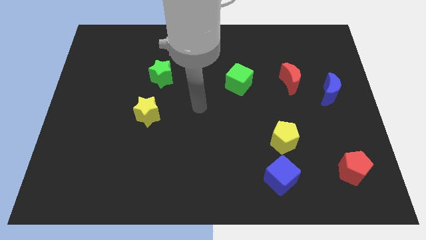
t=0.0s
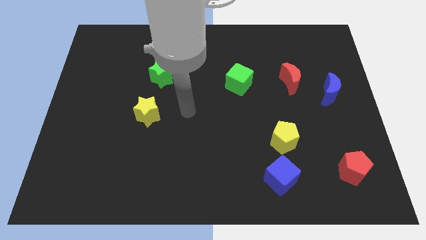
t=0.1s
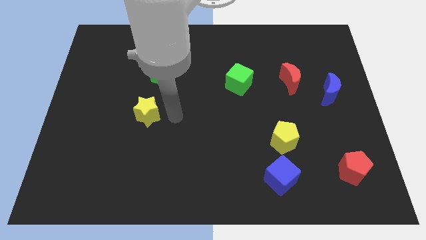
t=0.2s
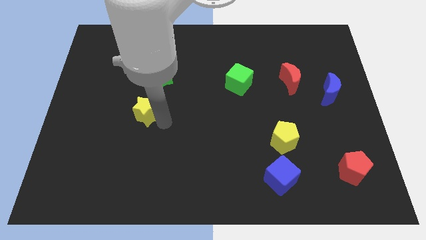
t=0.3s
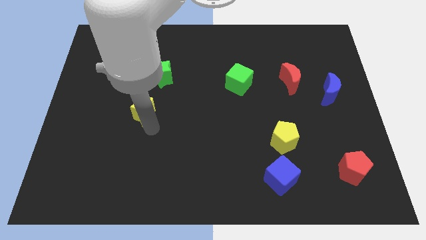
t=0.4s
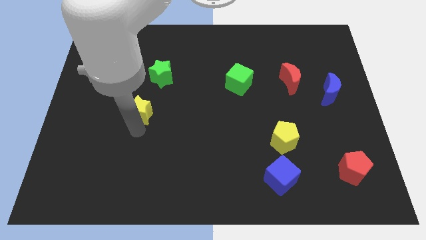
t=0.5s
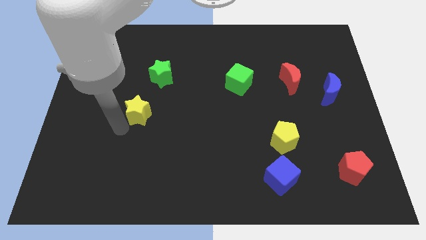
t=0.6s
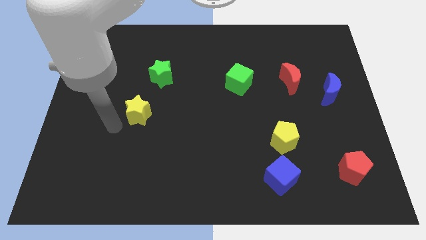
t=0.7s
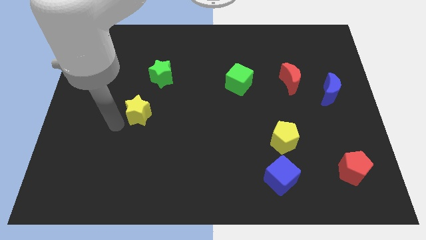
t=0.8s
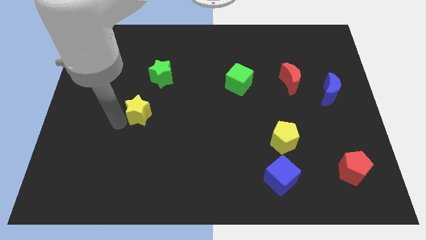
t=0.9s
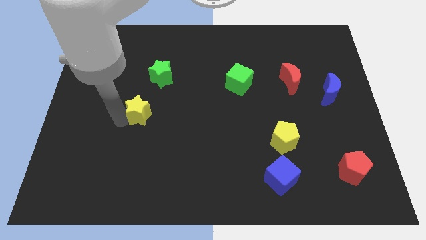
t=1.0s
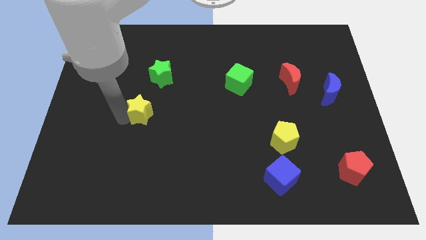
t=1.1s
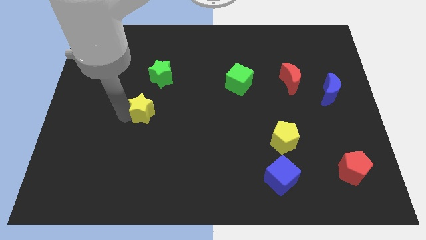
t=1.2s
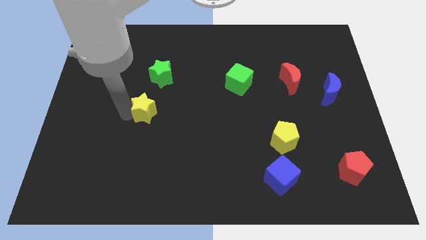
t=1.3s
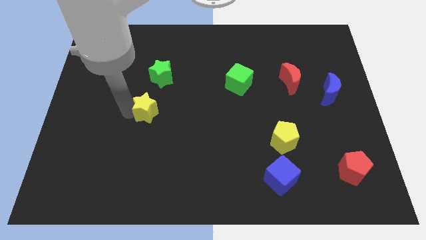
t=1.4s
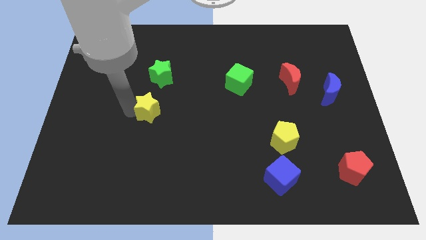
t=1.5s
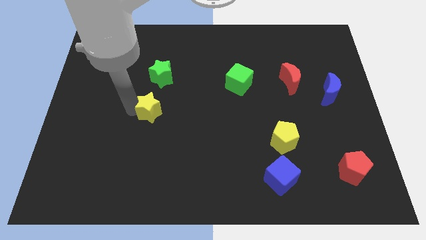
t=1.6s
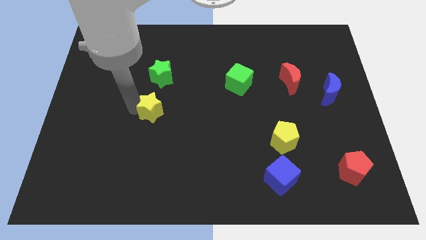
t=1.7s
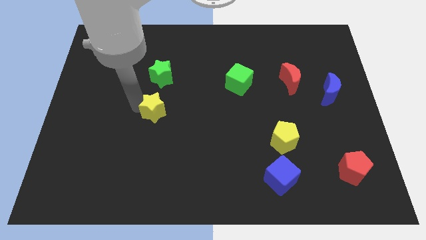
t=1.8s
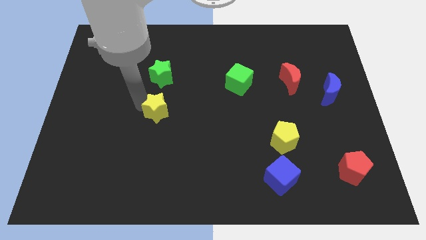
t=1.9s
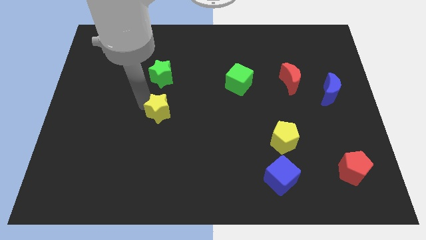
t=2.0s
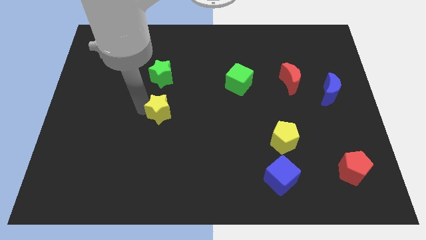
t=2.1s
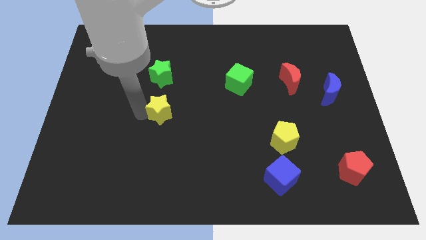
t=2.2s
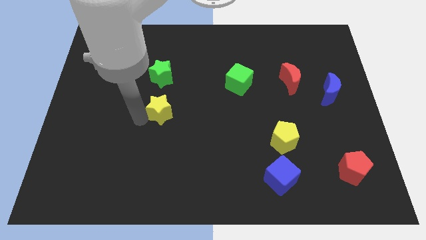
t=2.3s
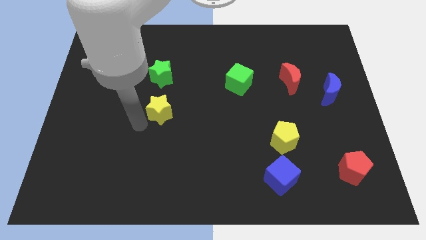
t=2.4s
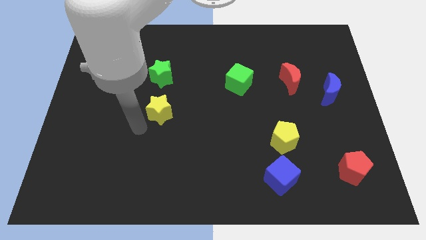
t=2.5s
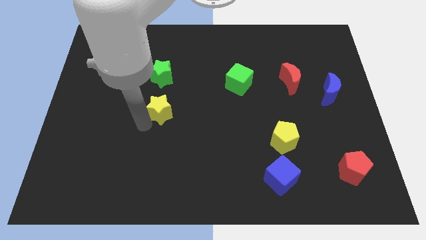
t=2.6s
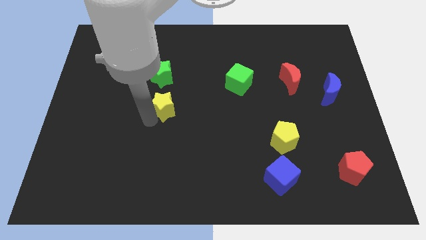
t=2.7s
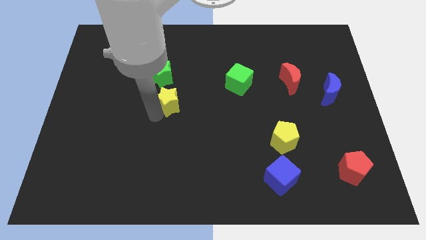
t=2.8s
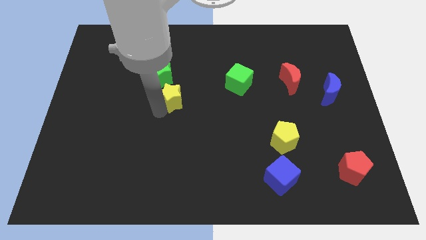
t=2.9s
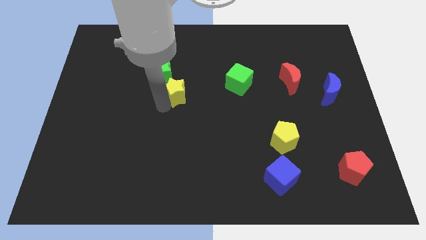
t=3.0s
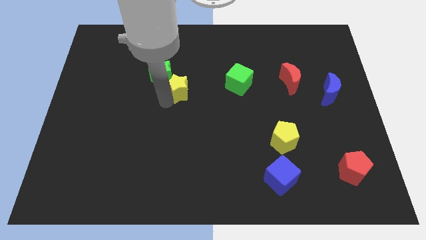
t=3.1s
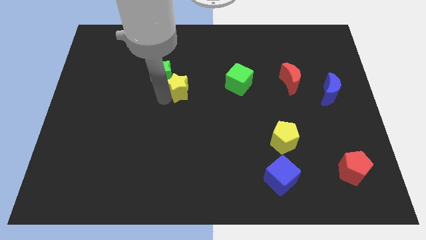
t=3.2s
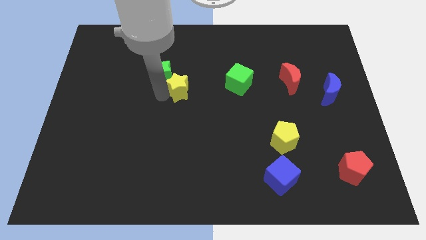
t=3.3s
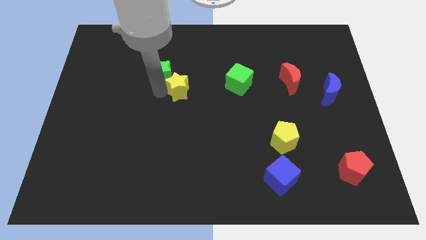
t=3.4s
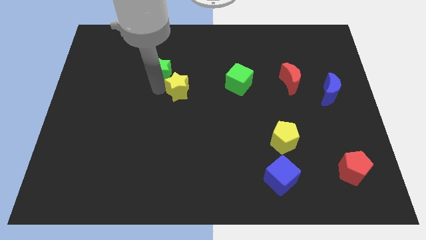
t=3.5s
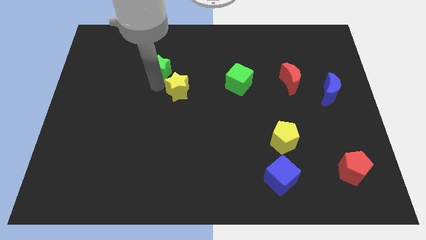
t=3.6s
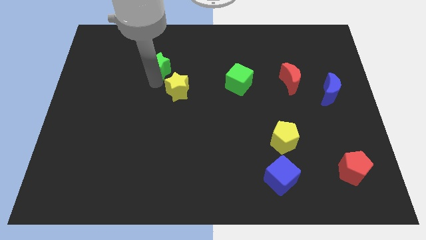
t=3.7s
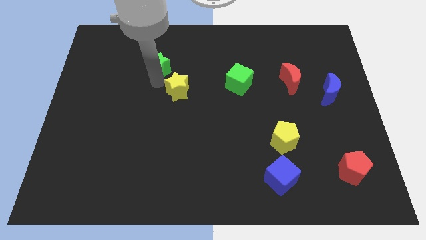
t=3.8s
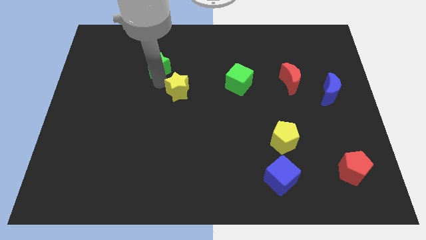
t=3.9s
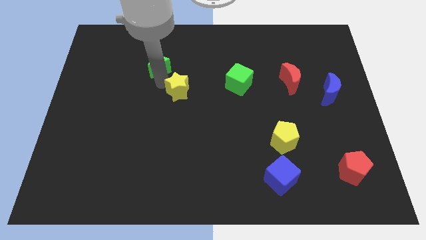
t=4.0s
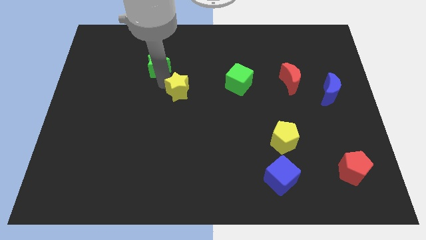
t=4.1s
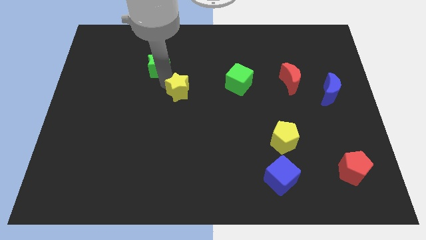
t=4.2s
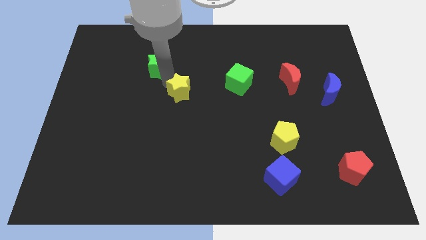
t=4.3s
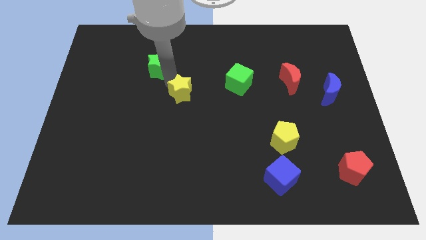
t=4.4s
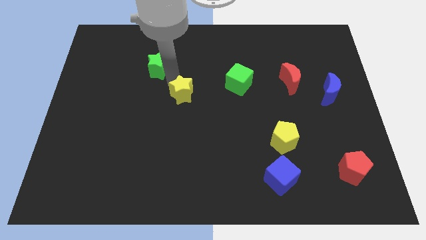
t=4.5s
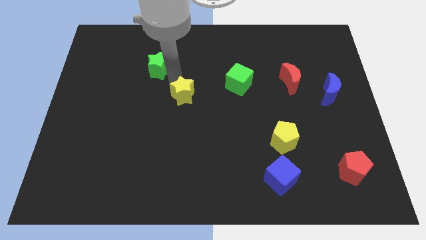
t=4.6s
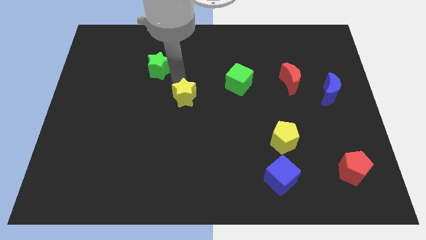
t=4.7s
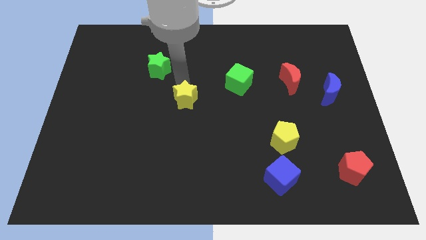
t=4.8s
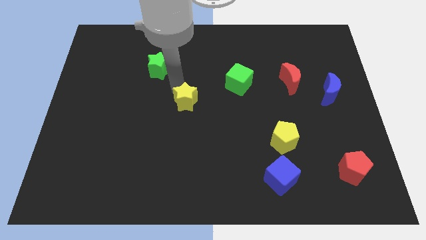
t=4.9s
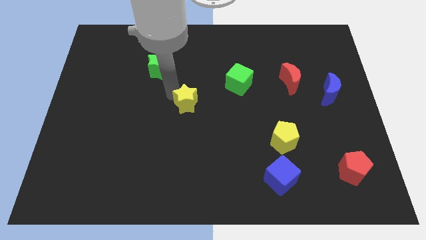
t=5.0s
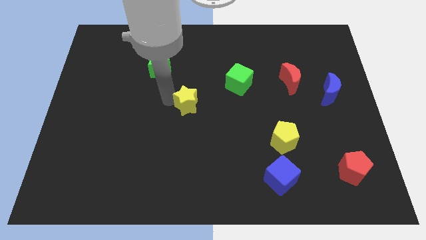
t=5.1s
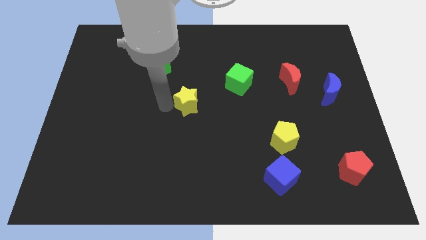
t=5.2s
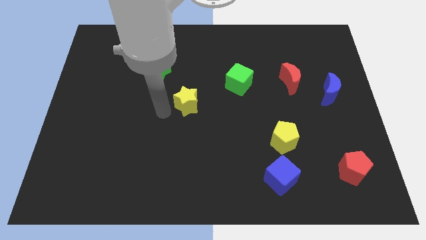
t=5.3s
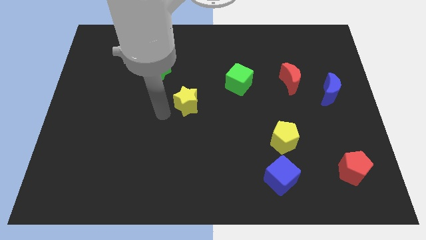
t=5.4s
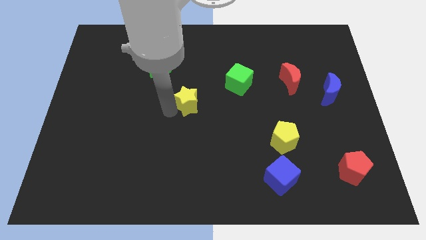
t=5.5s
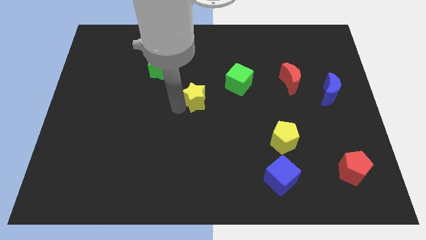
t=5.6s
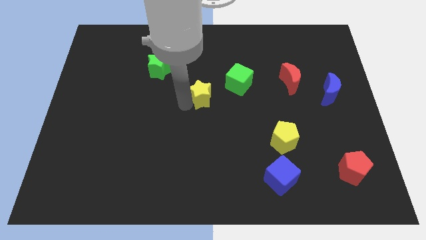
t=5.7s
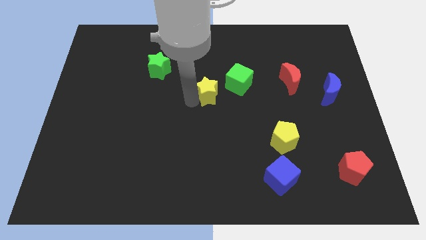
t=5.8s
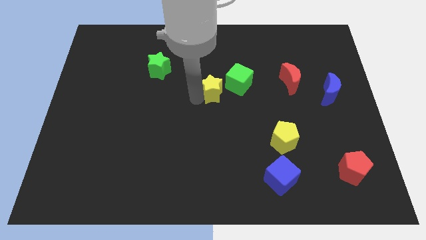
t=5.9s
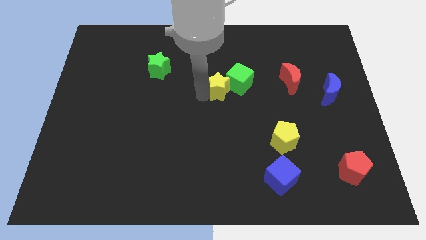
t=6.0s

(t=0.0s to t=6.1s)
push the yellow star towards the green cube

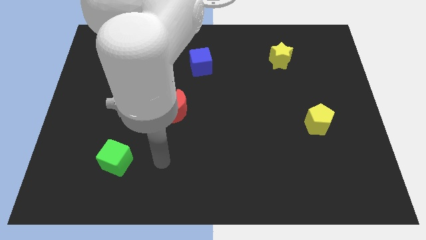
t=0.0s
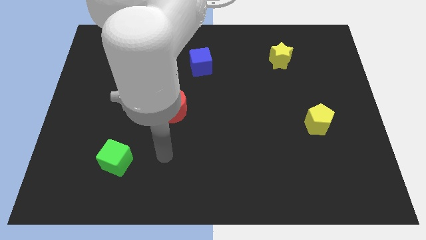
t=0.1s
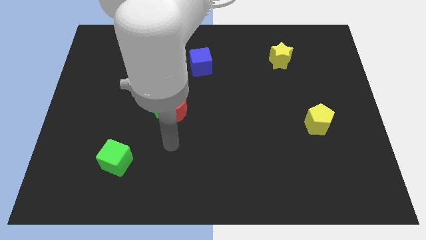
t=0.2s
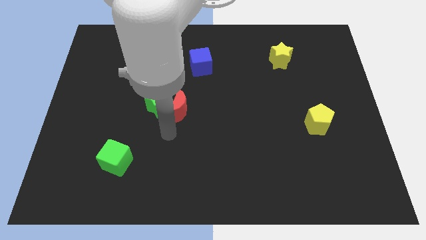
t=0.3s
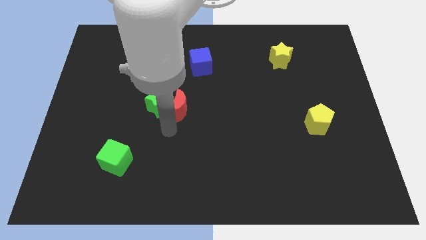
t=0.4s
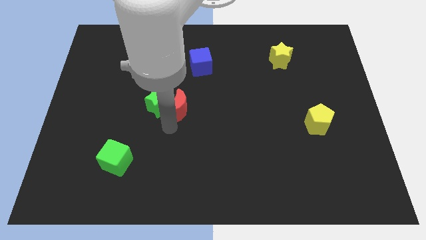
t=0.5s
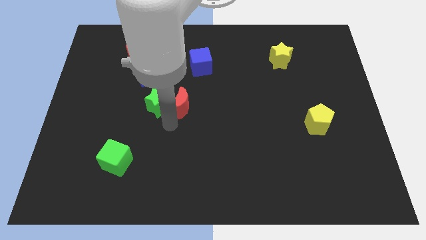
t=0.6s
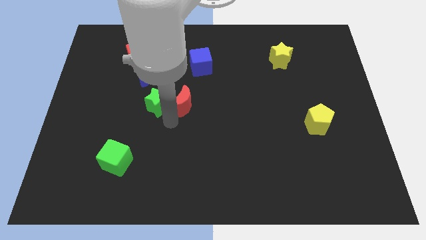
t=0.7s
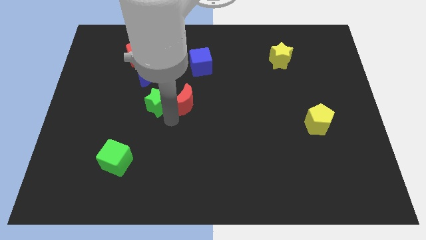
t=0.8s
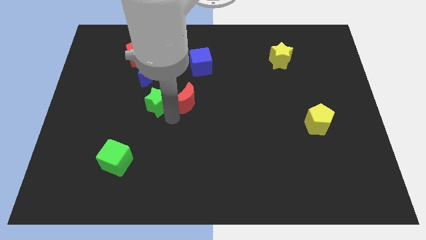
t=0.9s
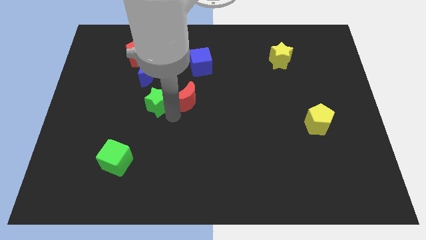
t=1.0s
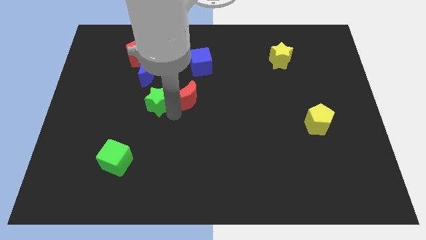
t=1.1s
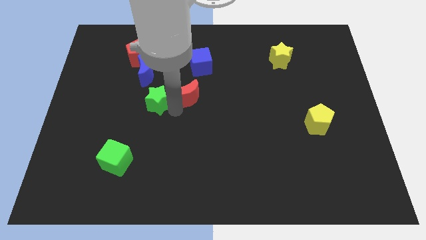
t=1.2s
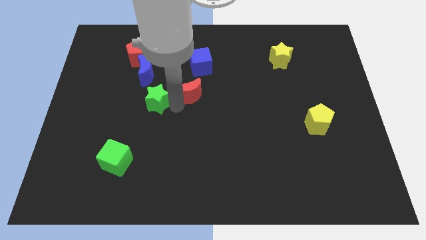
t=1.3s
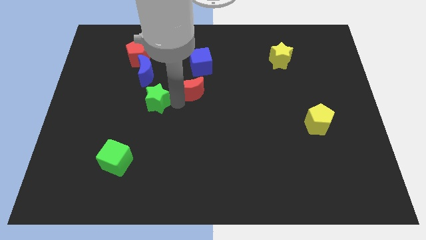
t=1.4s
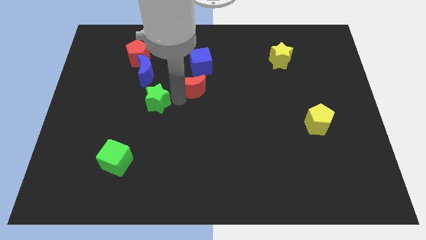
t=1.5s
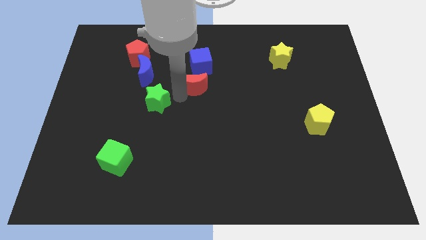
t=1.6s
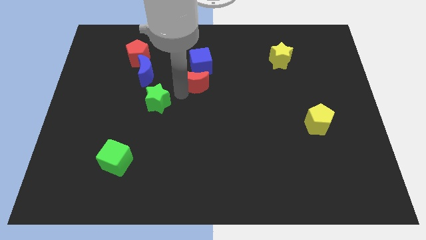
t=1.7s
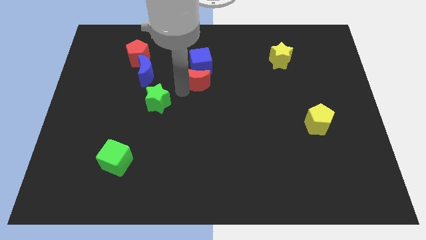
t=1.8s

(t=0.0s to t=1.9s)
slide the red moon to the blue cube
